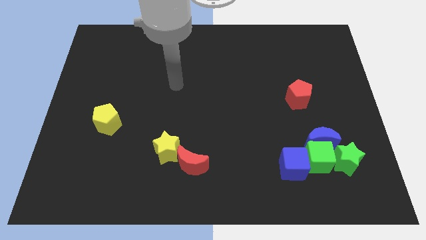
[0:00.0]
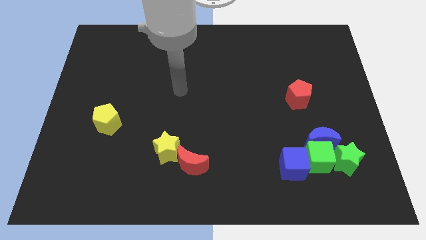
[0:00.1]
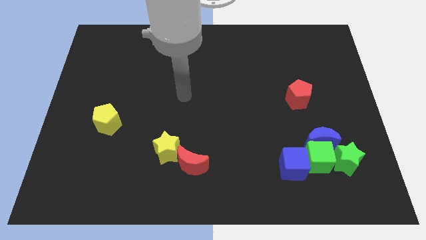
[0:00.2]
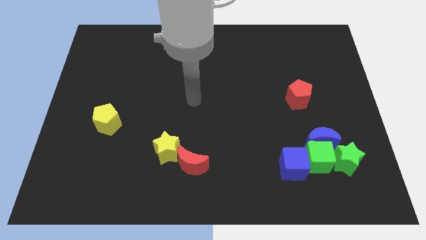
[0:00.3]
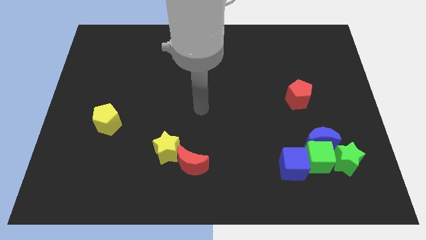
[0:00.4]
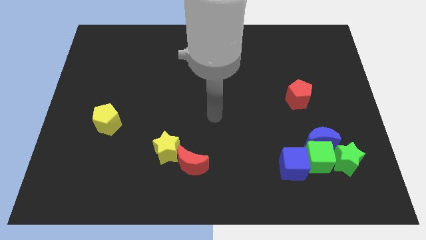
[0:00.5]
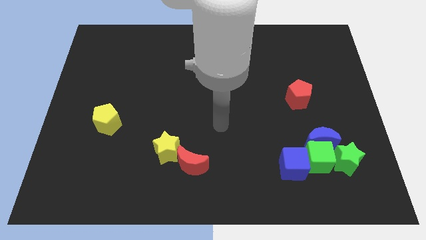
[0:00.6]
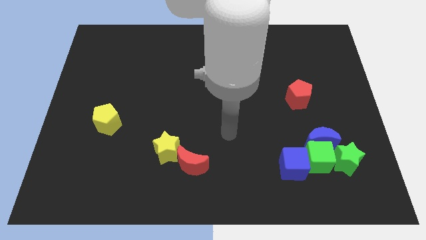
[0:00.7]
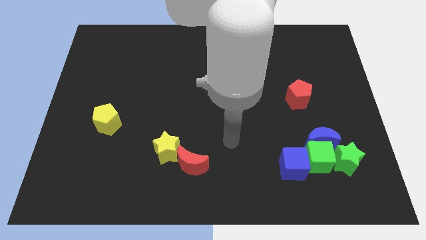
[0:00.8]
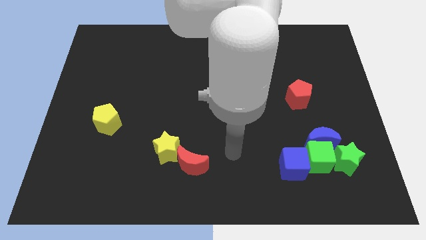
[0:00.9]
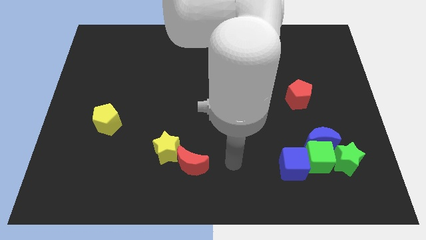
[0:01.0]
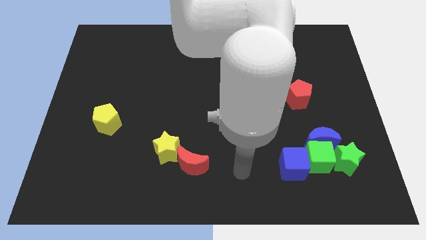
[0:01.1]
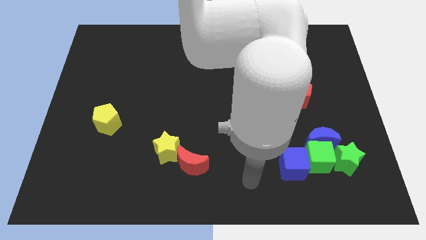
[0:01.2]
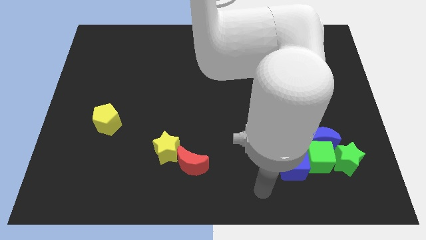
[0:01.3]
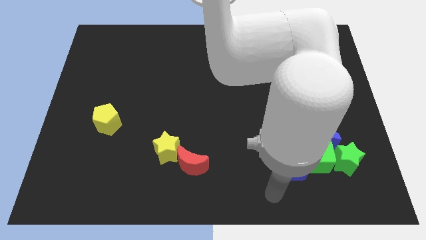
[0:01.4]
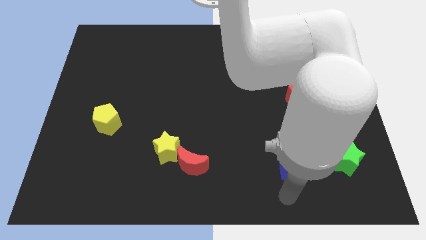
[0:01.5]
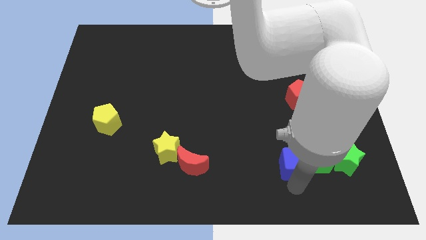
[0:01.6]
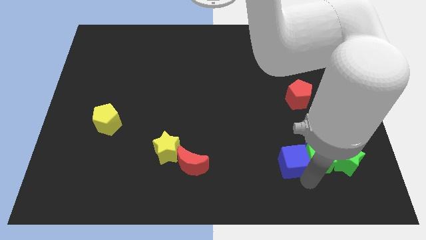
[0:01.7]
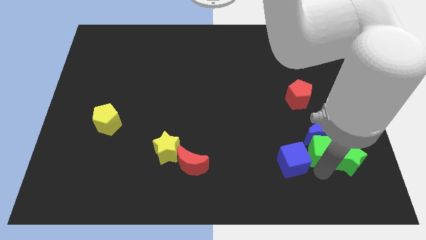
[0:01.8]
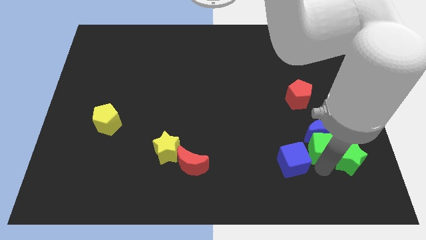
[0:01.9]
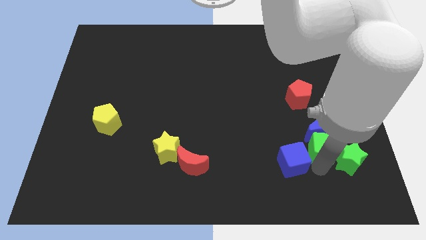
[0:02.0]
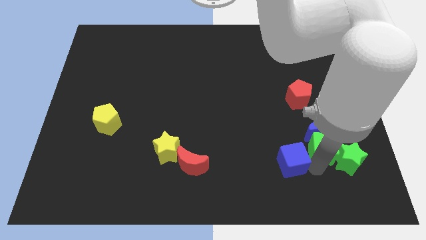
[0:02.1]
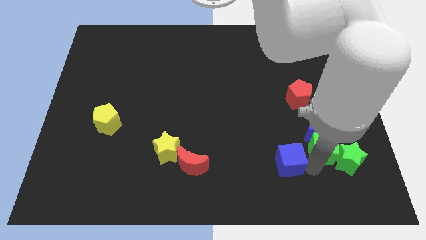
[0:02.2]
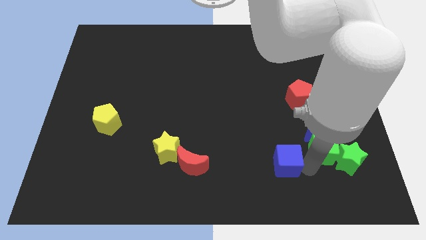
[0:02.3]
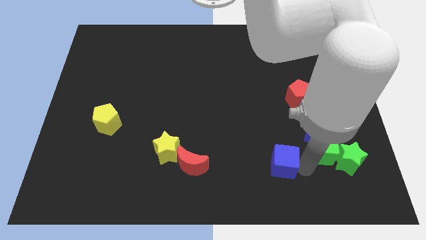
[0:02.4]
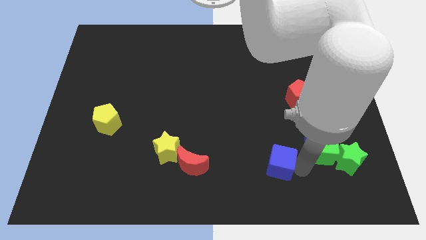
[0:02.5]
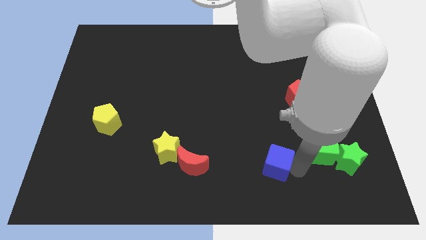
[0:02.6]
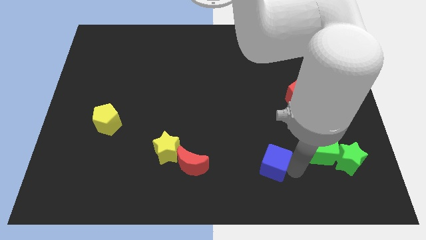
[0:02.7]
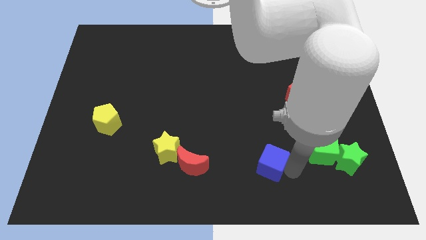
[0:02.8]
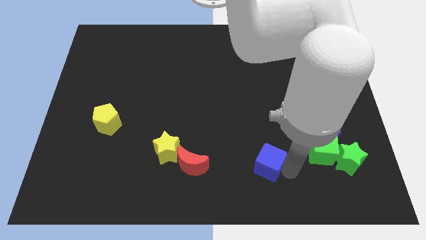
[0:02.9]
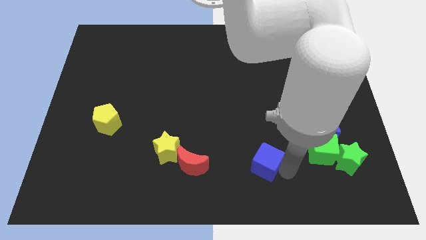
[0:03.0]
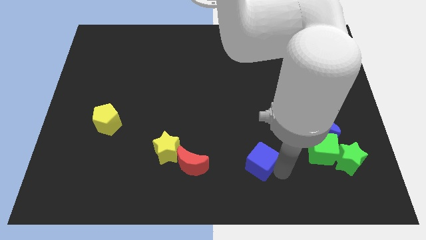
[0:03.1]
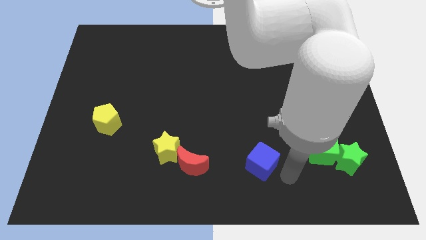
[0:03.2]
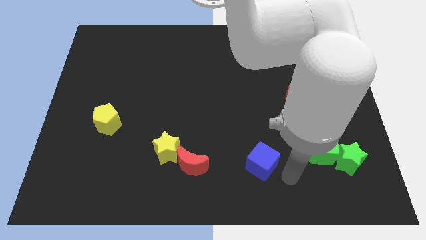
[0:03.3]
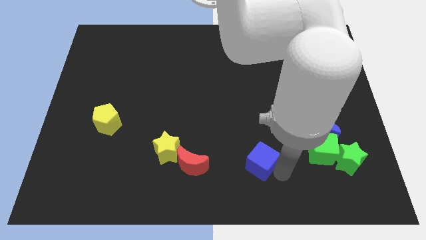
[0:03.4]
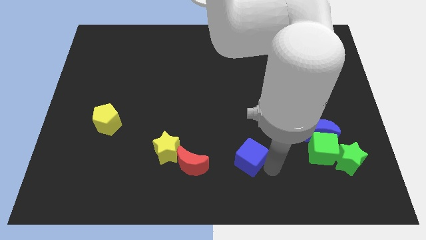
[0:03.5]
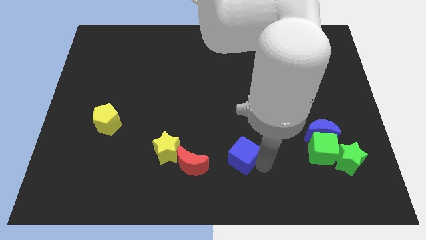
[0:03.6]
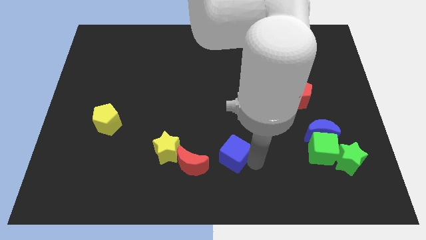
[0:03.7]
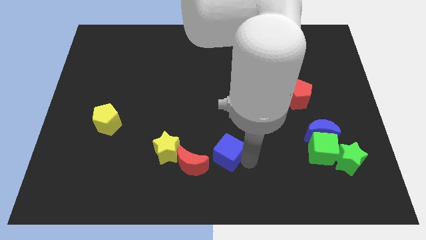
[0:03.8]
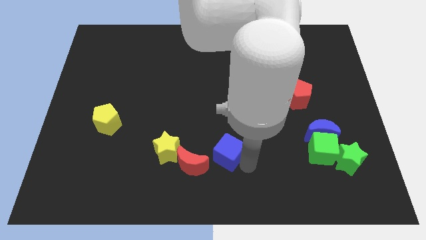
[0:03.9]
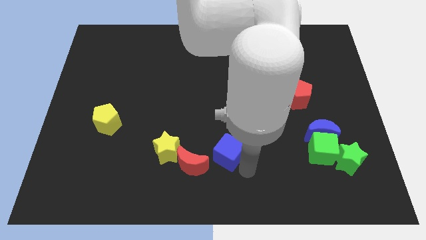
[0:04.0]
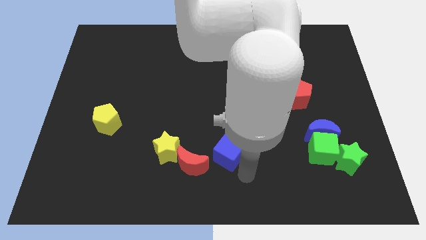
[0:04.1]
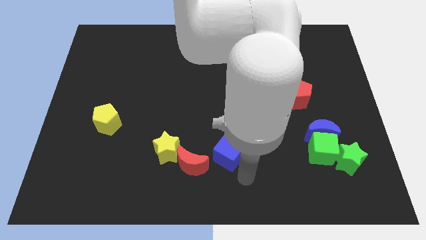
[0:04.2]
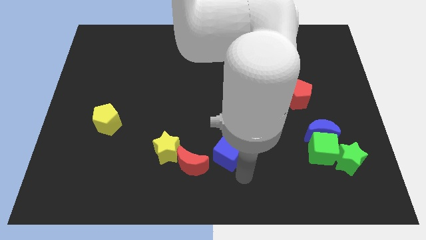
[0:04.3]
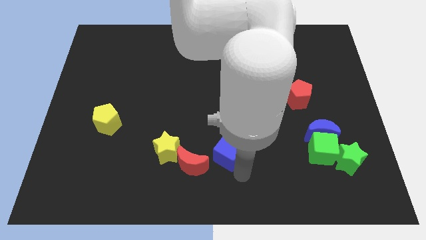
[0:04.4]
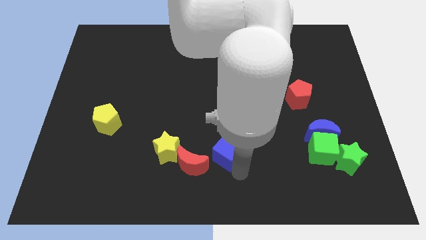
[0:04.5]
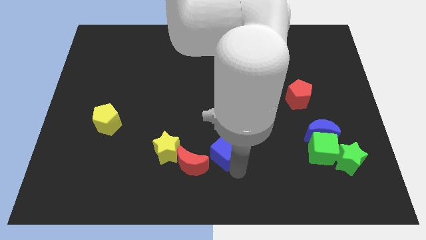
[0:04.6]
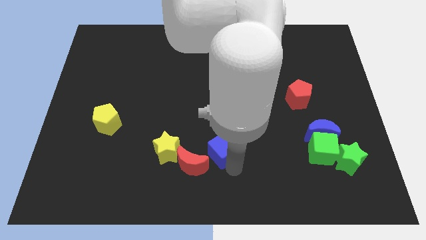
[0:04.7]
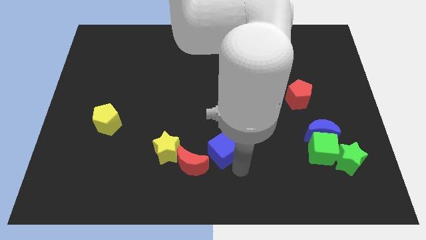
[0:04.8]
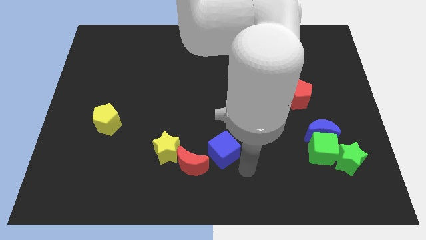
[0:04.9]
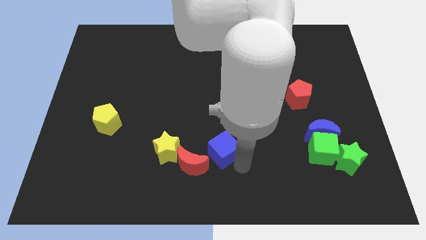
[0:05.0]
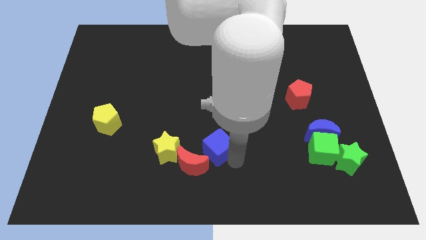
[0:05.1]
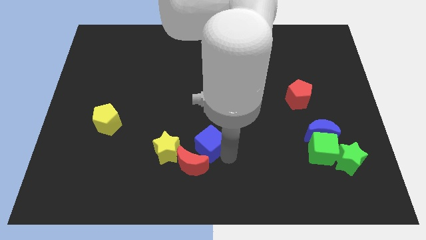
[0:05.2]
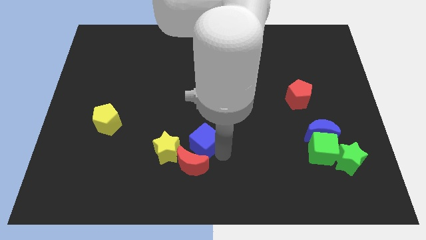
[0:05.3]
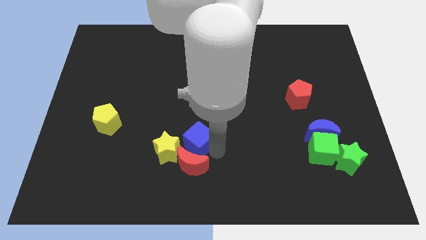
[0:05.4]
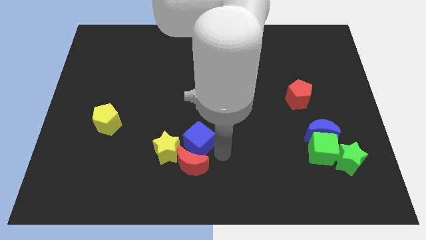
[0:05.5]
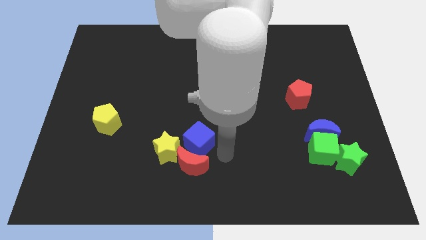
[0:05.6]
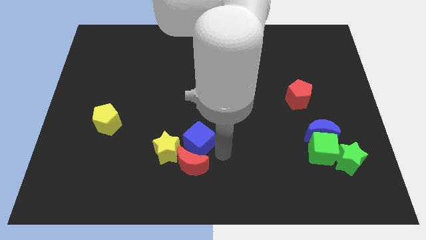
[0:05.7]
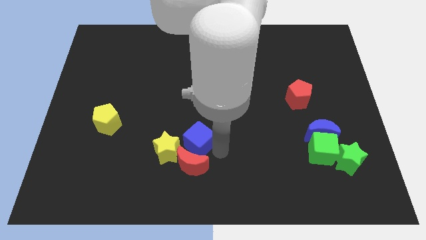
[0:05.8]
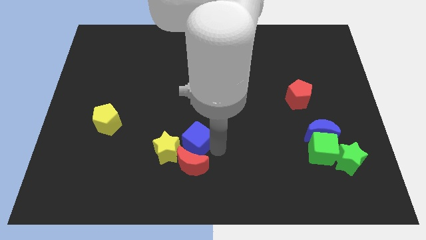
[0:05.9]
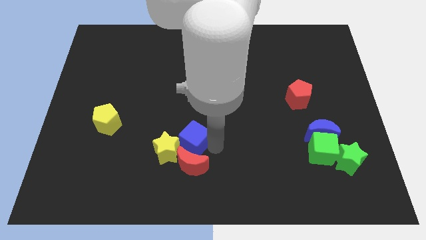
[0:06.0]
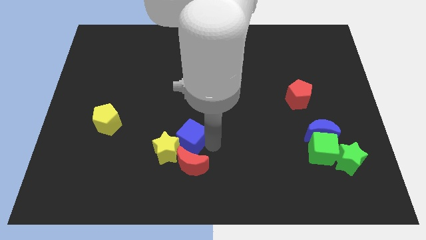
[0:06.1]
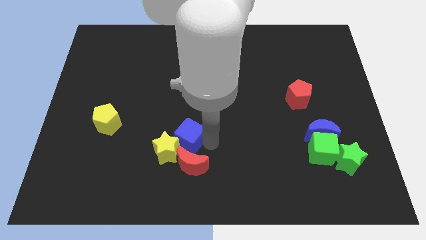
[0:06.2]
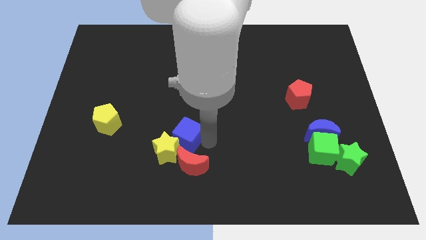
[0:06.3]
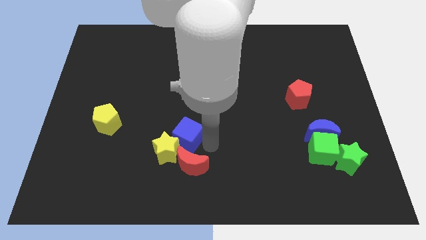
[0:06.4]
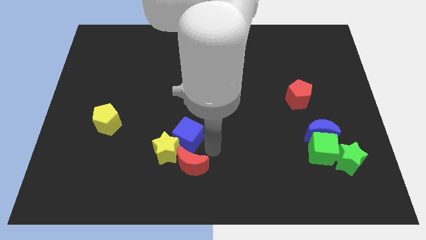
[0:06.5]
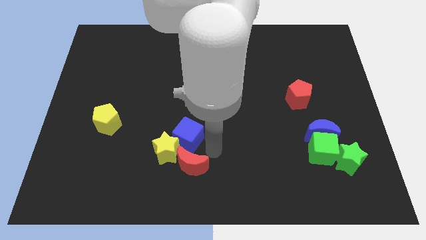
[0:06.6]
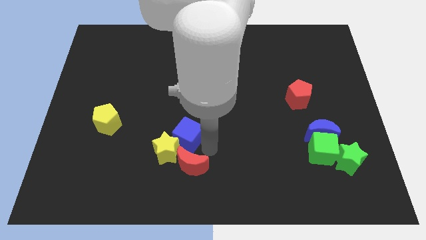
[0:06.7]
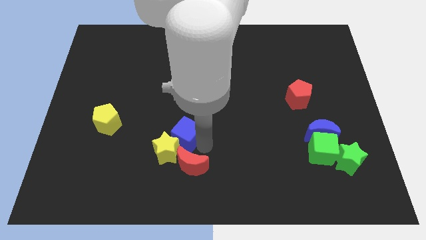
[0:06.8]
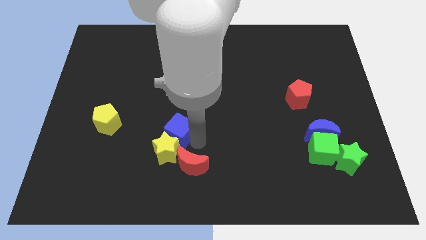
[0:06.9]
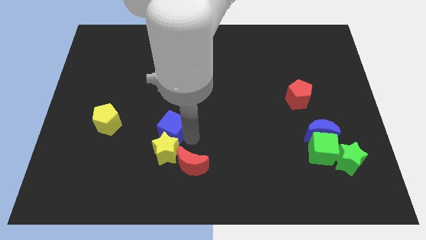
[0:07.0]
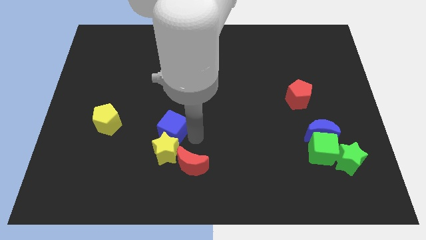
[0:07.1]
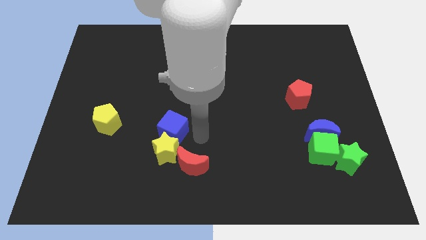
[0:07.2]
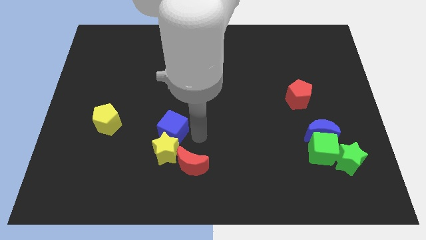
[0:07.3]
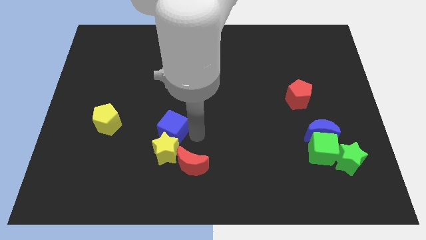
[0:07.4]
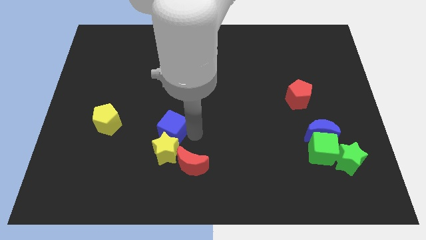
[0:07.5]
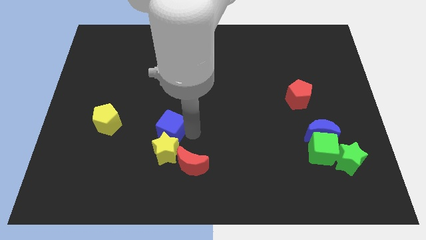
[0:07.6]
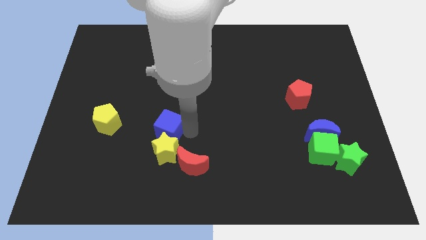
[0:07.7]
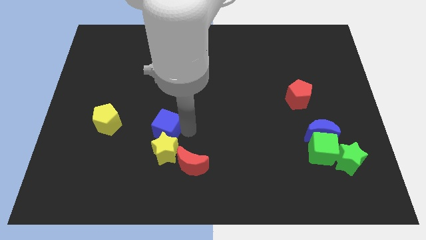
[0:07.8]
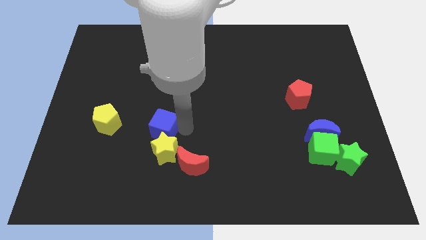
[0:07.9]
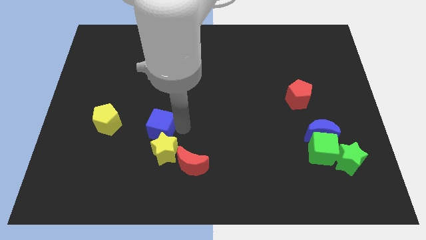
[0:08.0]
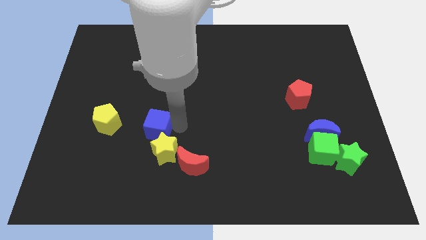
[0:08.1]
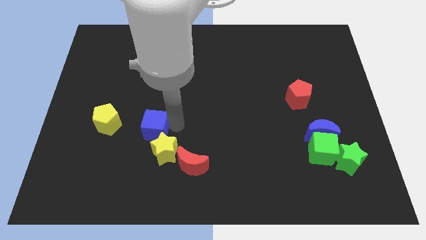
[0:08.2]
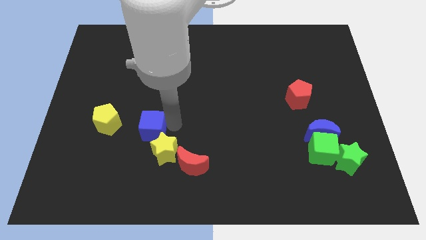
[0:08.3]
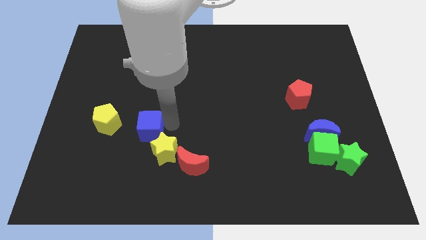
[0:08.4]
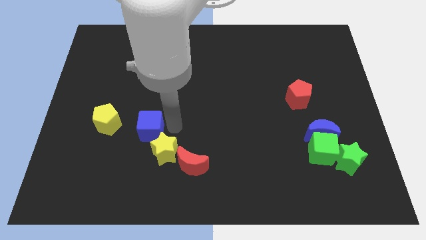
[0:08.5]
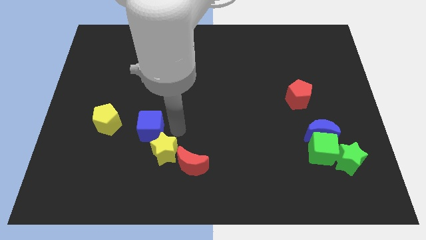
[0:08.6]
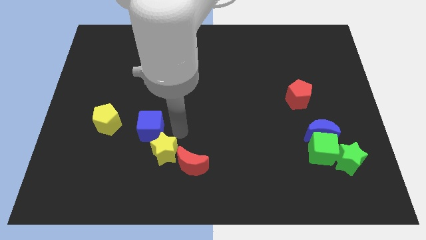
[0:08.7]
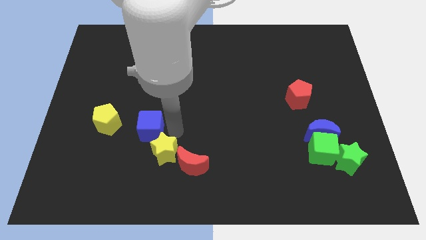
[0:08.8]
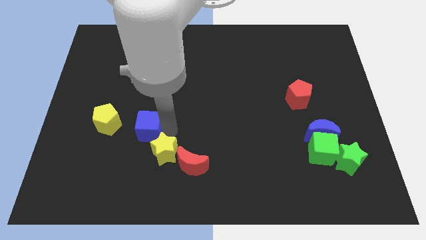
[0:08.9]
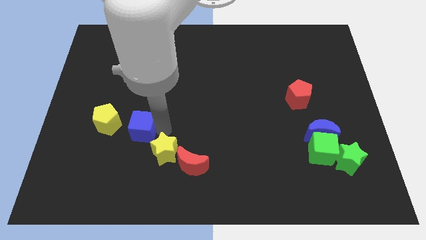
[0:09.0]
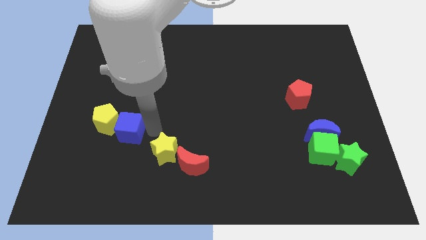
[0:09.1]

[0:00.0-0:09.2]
put the blue cube to the yellow pentagon
